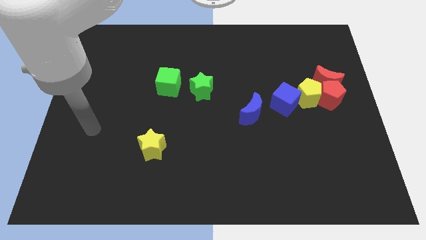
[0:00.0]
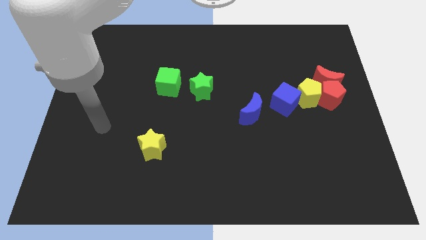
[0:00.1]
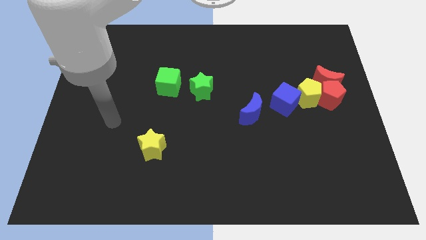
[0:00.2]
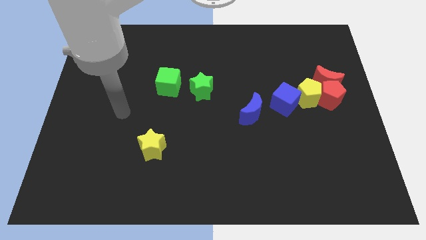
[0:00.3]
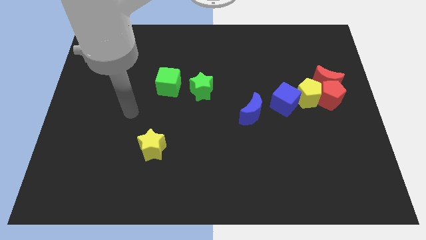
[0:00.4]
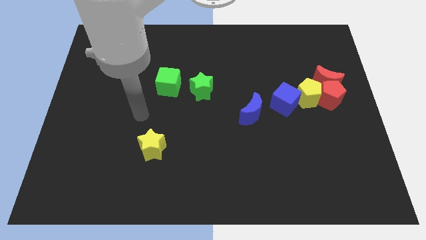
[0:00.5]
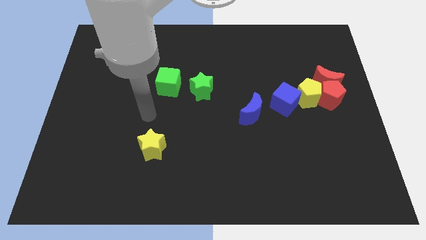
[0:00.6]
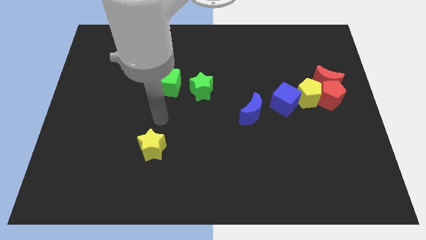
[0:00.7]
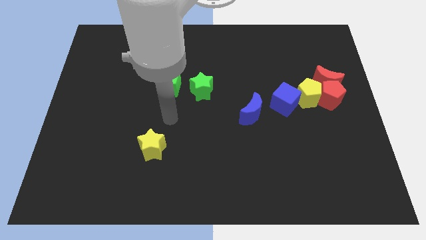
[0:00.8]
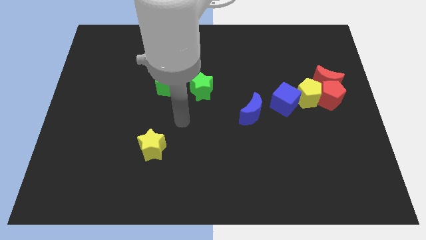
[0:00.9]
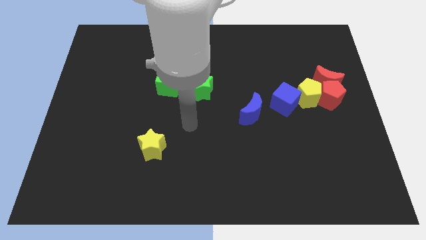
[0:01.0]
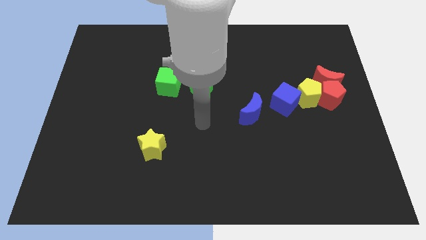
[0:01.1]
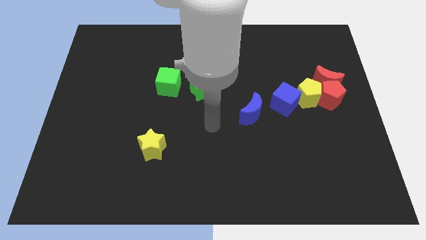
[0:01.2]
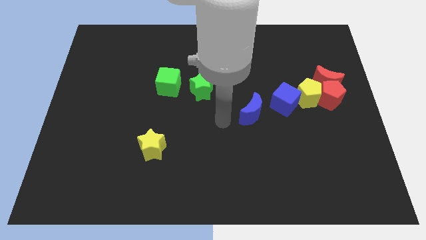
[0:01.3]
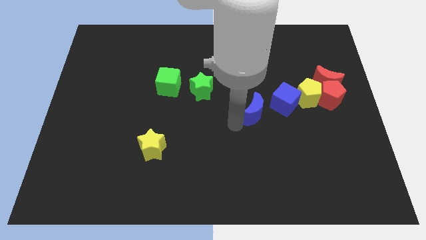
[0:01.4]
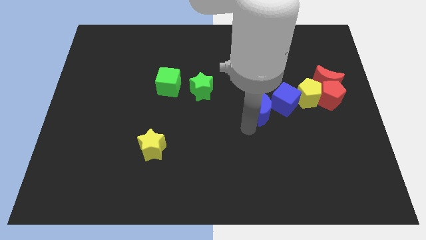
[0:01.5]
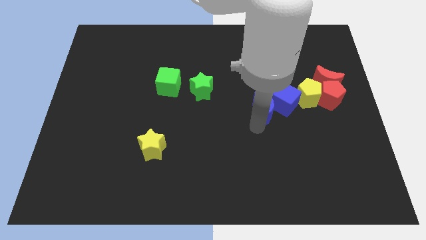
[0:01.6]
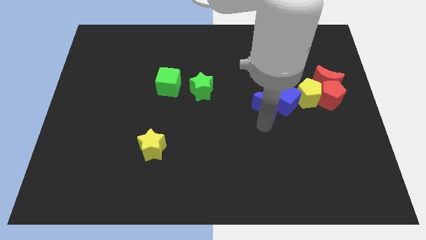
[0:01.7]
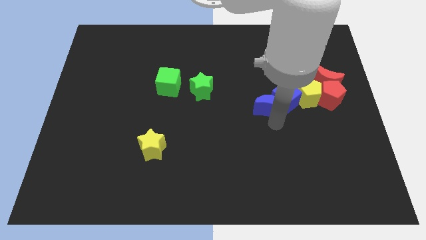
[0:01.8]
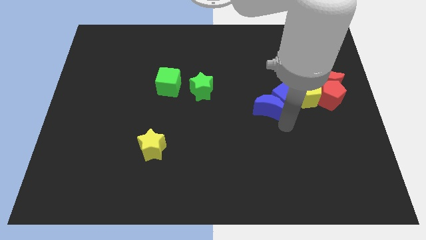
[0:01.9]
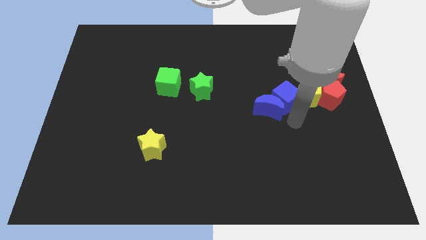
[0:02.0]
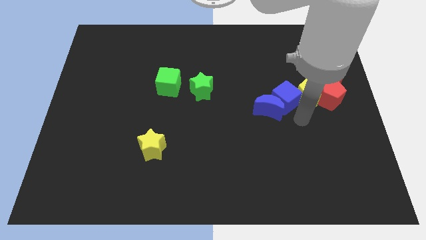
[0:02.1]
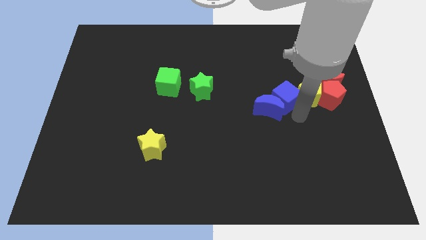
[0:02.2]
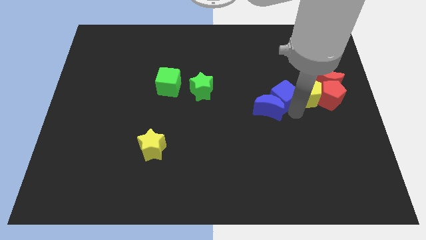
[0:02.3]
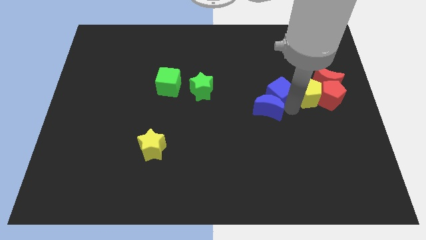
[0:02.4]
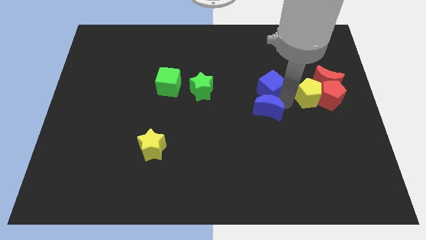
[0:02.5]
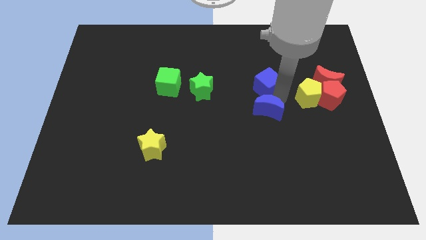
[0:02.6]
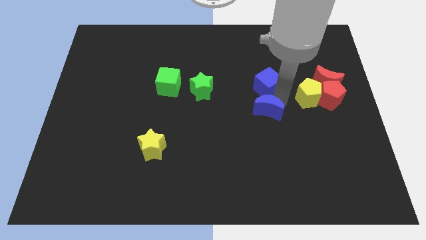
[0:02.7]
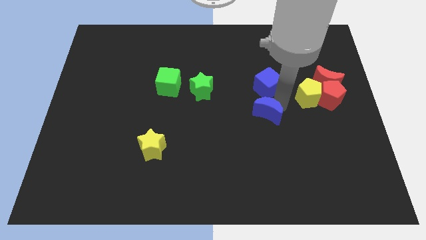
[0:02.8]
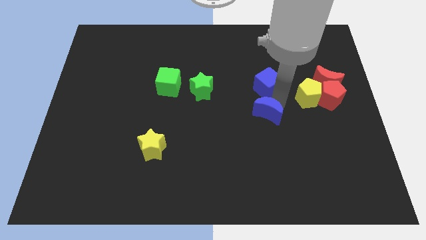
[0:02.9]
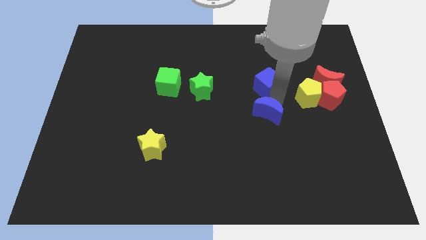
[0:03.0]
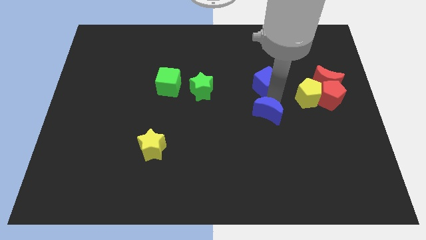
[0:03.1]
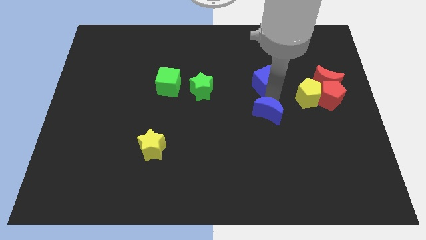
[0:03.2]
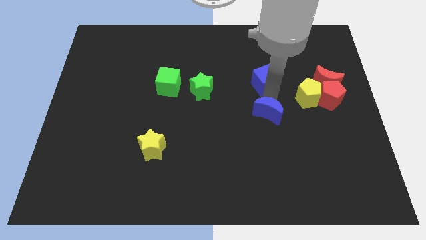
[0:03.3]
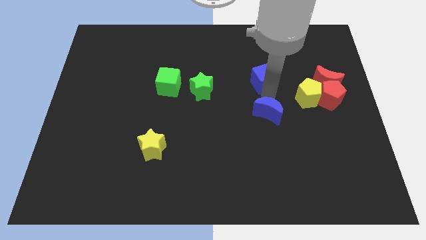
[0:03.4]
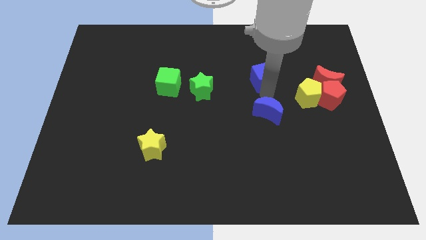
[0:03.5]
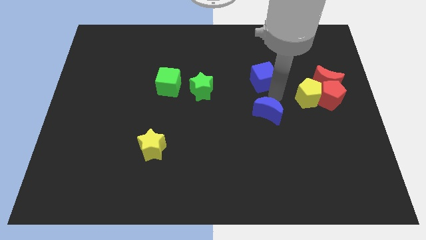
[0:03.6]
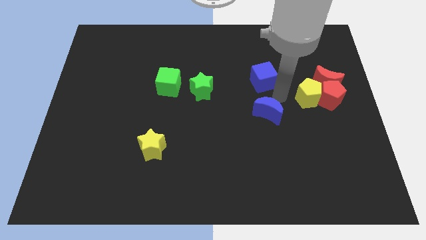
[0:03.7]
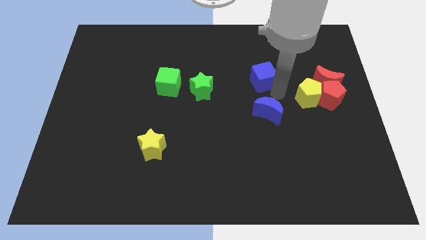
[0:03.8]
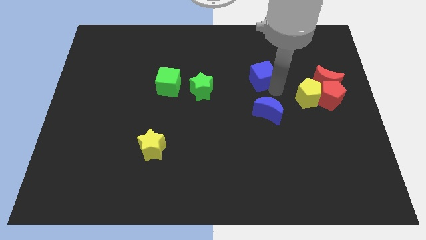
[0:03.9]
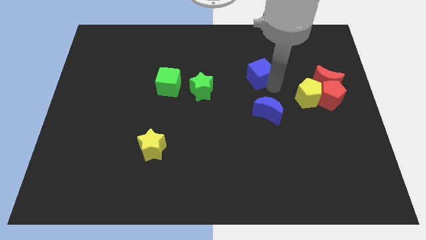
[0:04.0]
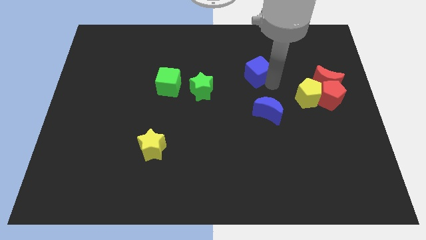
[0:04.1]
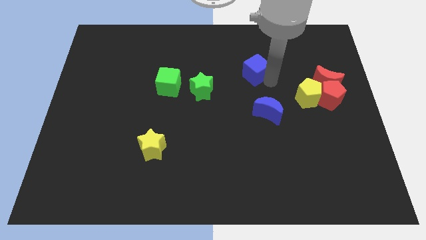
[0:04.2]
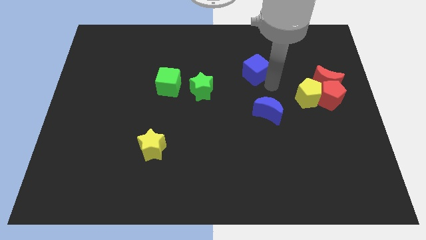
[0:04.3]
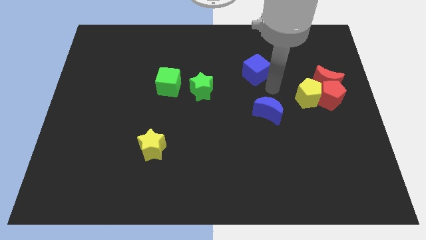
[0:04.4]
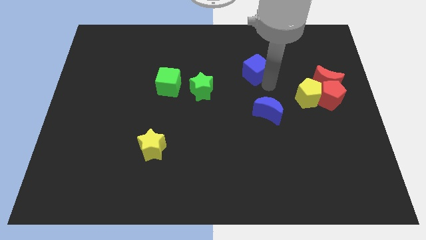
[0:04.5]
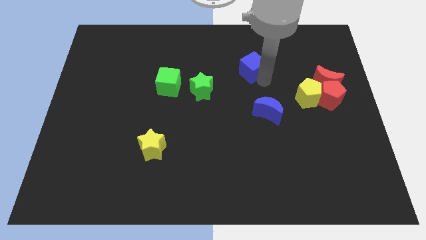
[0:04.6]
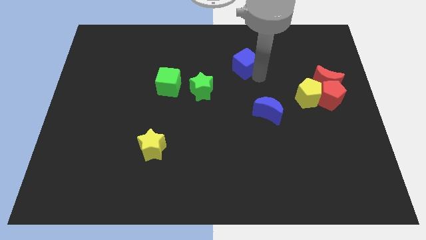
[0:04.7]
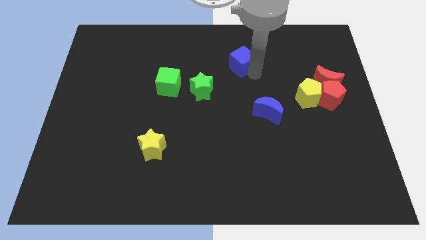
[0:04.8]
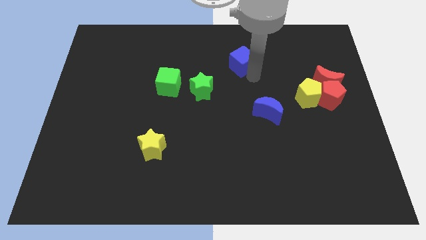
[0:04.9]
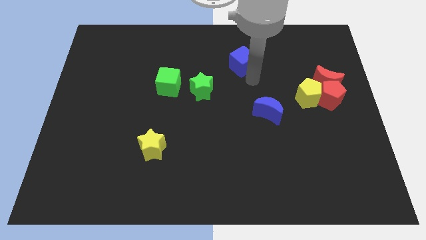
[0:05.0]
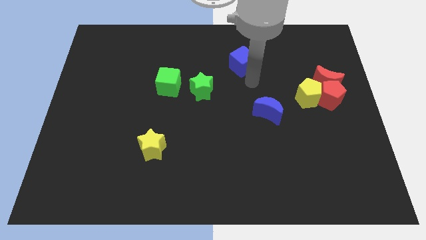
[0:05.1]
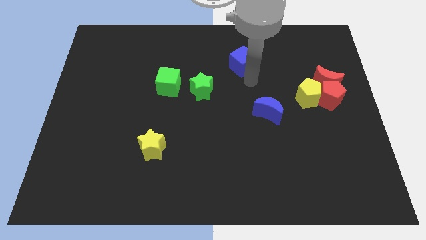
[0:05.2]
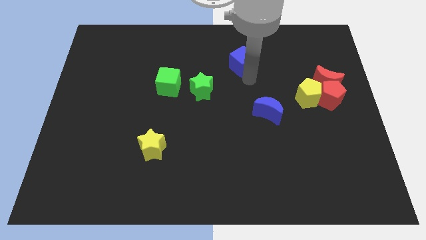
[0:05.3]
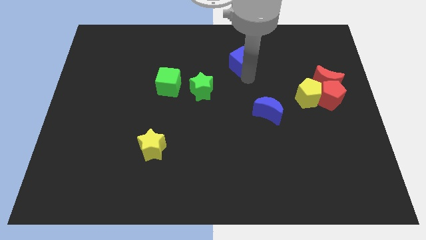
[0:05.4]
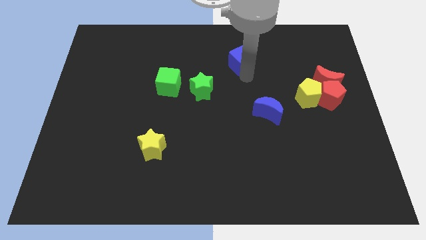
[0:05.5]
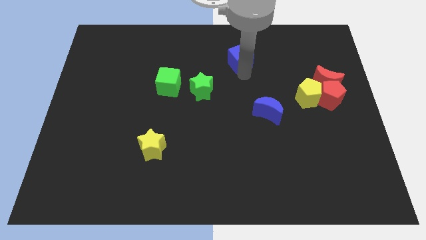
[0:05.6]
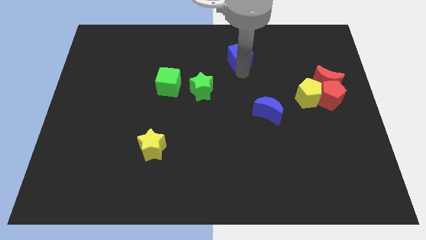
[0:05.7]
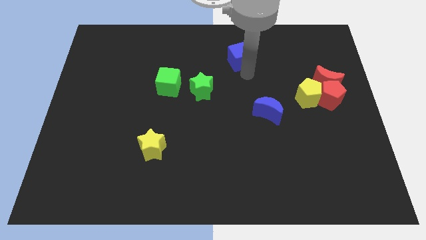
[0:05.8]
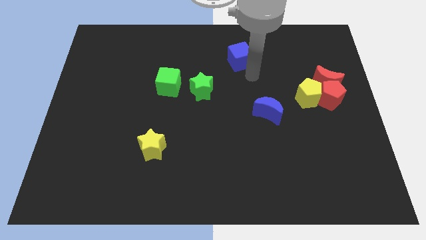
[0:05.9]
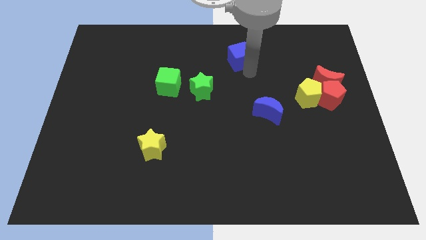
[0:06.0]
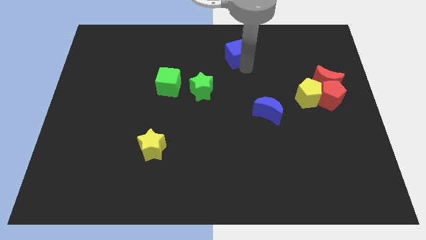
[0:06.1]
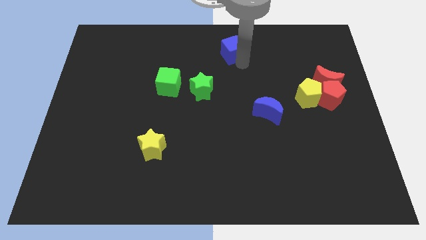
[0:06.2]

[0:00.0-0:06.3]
slide the blue cube to the top
